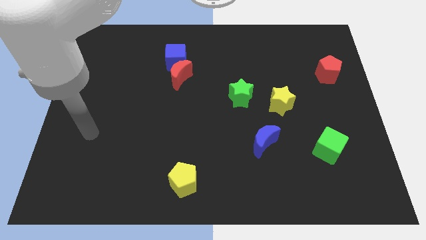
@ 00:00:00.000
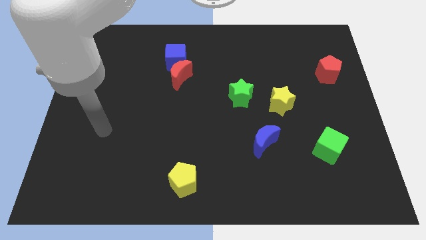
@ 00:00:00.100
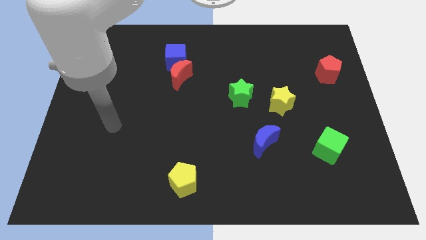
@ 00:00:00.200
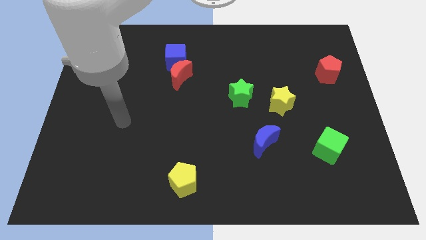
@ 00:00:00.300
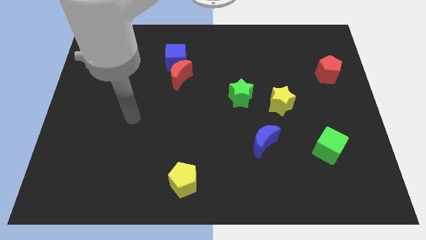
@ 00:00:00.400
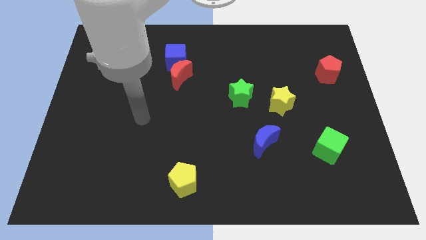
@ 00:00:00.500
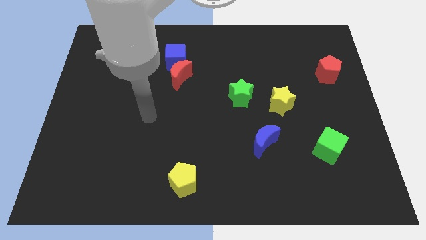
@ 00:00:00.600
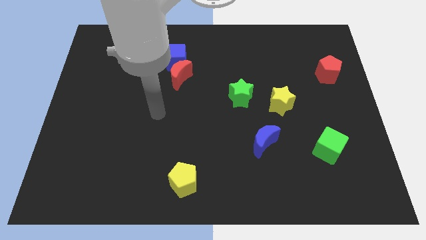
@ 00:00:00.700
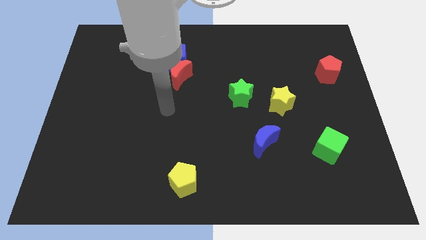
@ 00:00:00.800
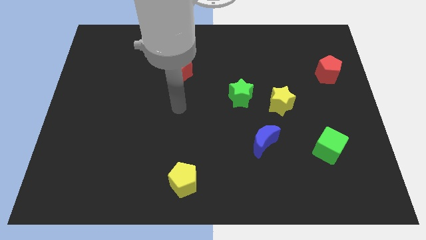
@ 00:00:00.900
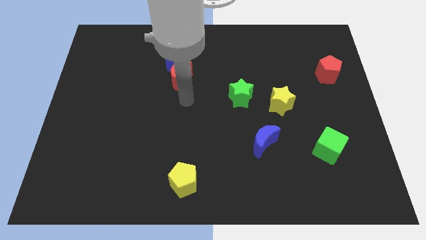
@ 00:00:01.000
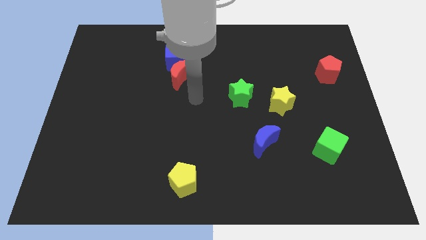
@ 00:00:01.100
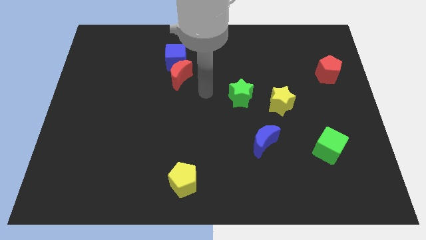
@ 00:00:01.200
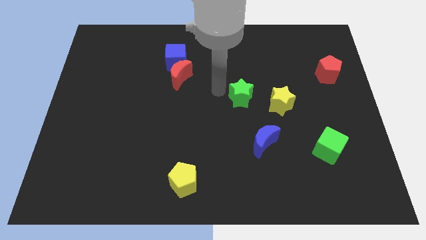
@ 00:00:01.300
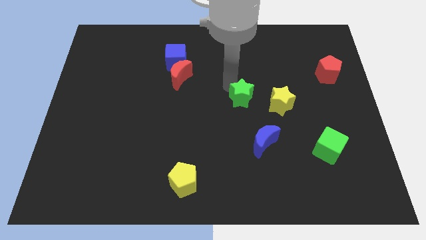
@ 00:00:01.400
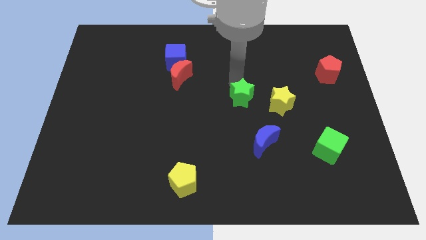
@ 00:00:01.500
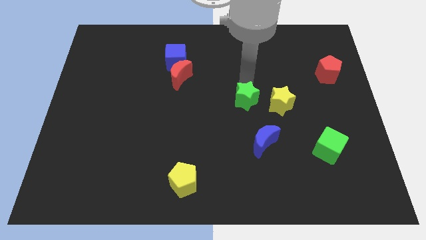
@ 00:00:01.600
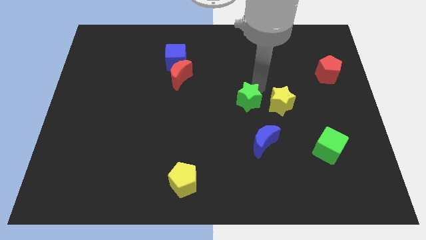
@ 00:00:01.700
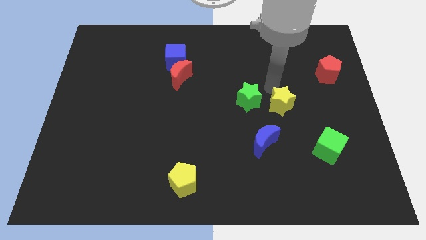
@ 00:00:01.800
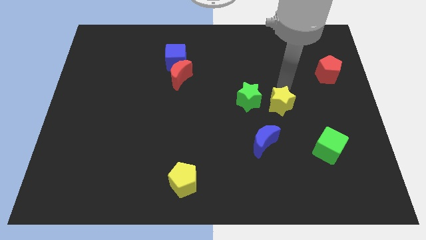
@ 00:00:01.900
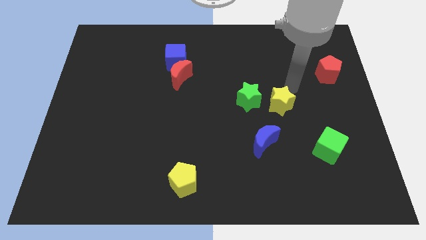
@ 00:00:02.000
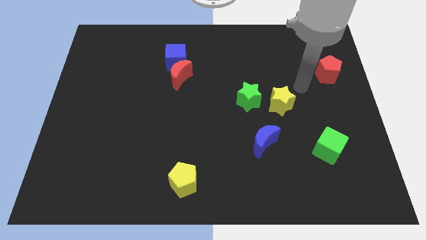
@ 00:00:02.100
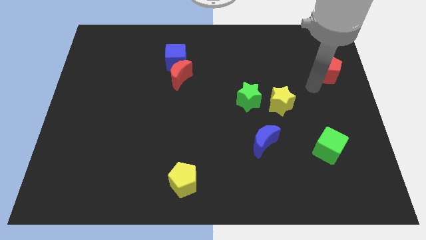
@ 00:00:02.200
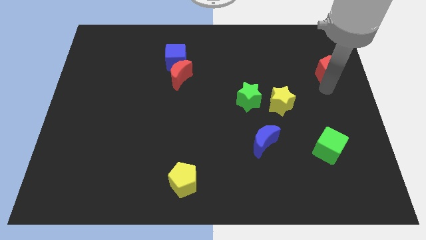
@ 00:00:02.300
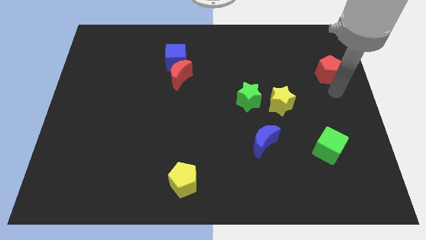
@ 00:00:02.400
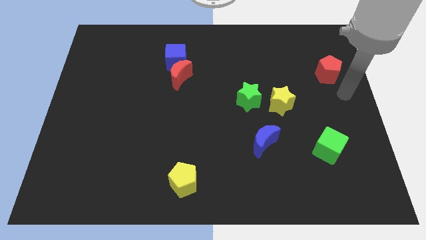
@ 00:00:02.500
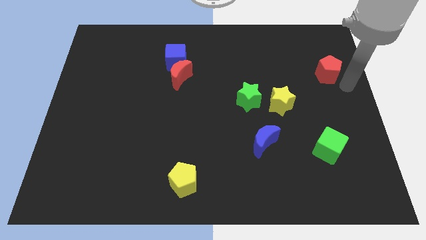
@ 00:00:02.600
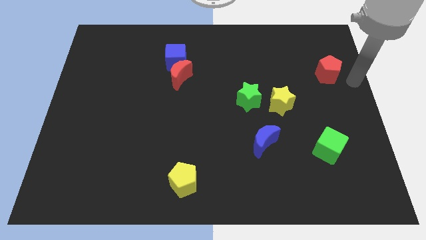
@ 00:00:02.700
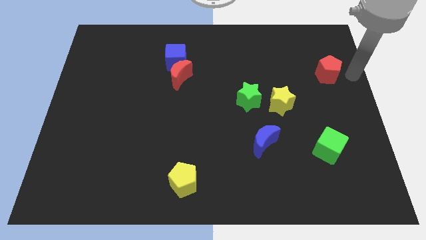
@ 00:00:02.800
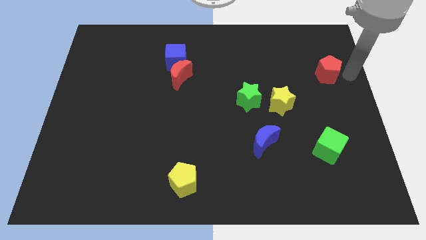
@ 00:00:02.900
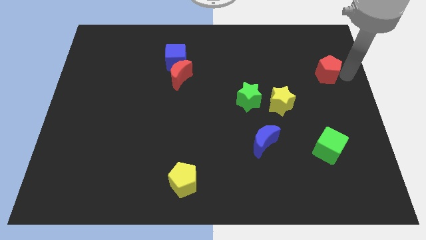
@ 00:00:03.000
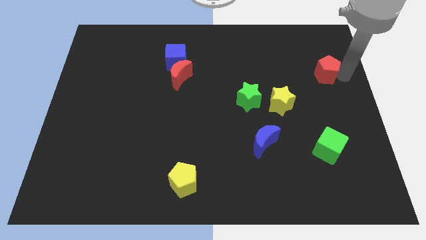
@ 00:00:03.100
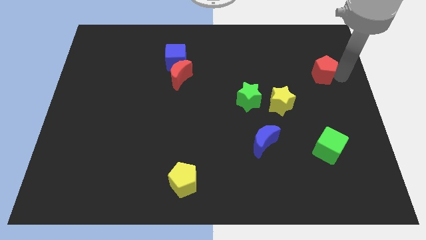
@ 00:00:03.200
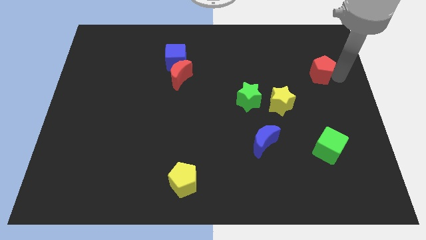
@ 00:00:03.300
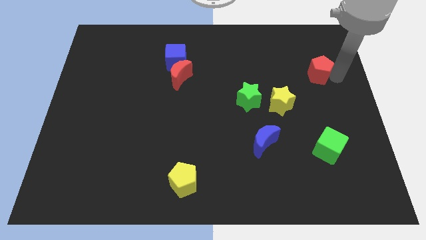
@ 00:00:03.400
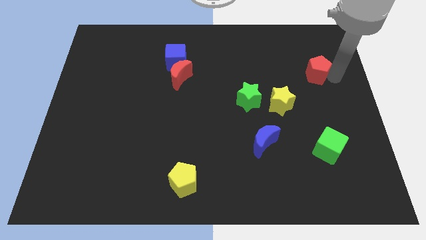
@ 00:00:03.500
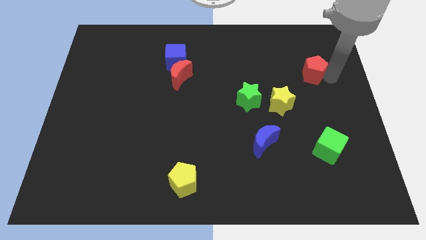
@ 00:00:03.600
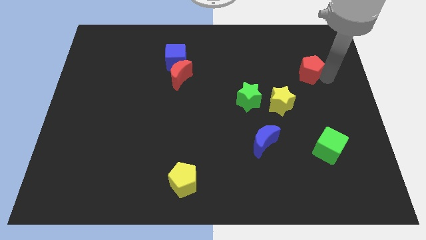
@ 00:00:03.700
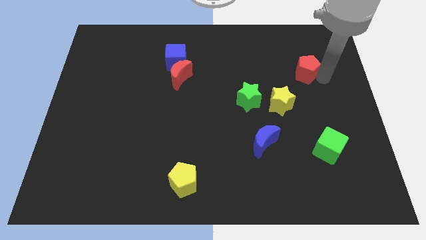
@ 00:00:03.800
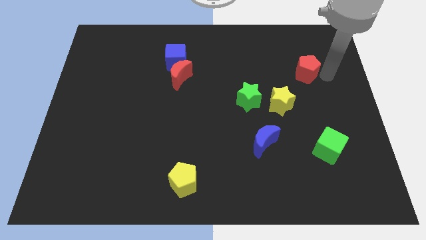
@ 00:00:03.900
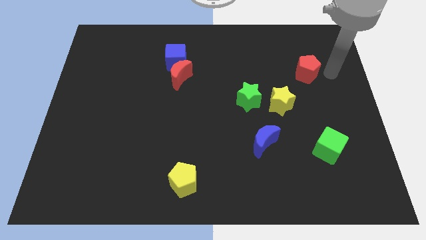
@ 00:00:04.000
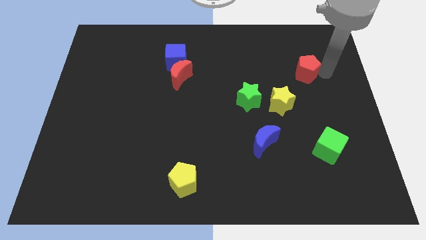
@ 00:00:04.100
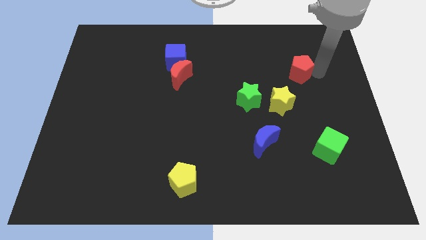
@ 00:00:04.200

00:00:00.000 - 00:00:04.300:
move the red pentagon left a little

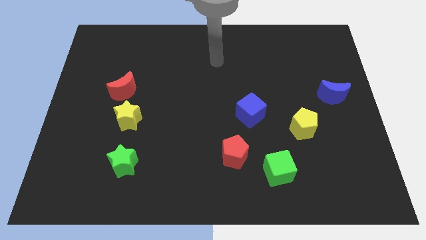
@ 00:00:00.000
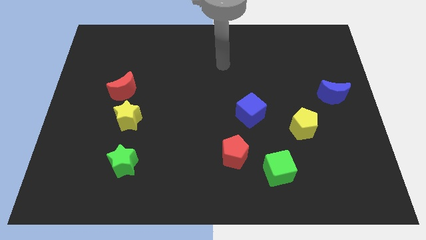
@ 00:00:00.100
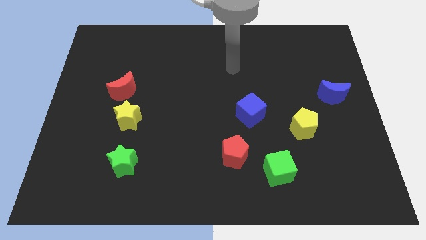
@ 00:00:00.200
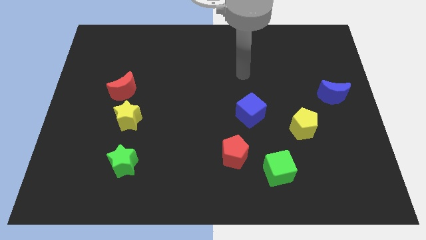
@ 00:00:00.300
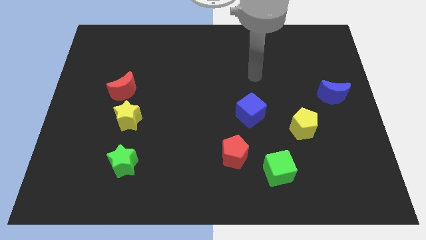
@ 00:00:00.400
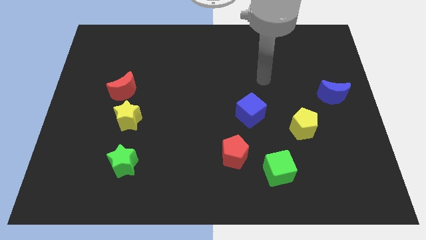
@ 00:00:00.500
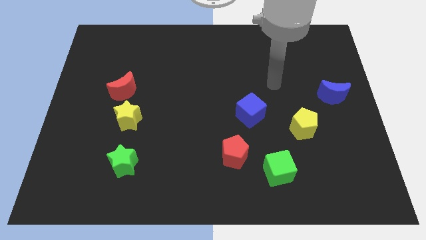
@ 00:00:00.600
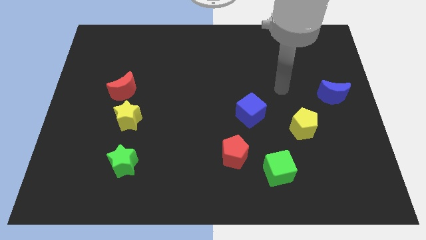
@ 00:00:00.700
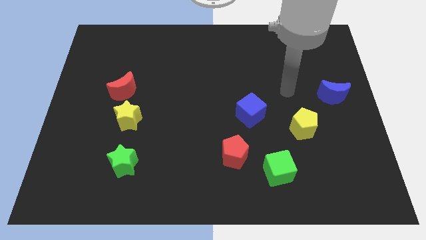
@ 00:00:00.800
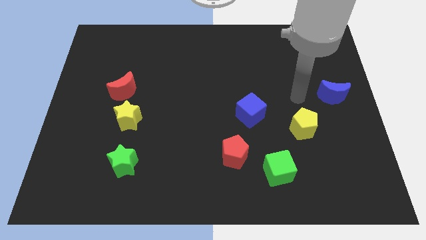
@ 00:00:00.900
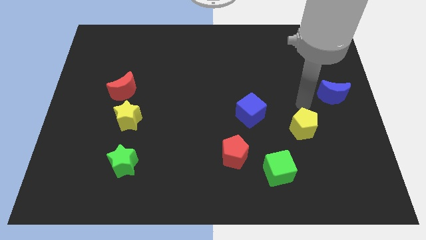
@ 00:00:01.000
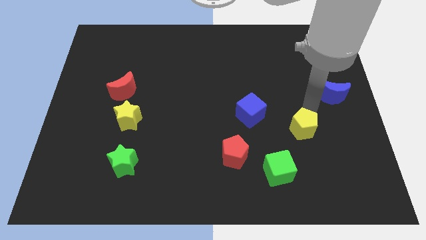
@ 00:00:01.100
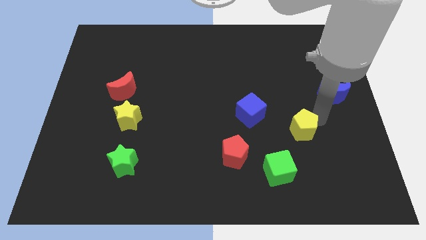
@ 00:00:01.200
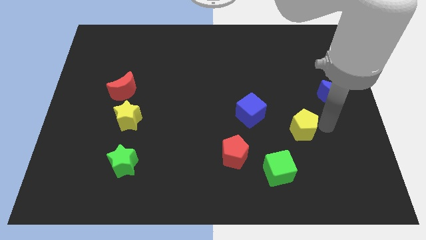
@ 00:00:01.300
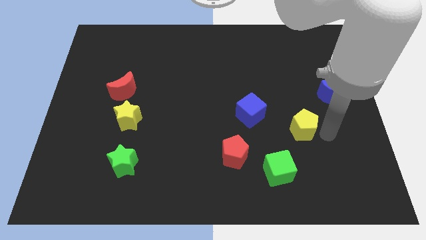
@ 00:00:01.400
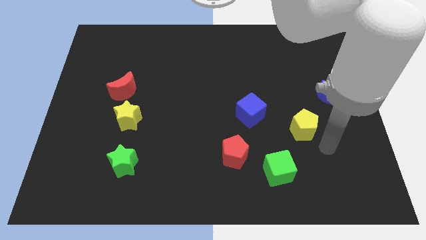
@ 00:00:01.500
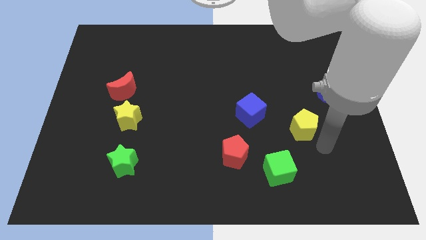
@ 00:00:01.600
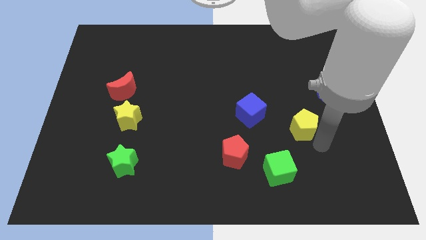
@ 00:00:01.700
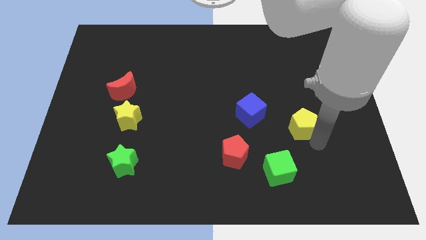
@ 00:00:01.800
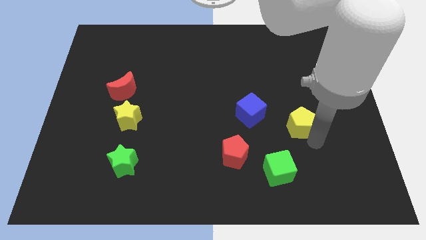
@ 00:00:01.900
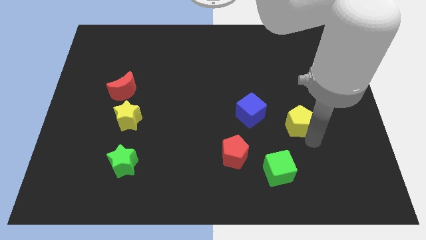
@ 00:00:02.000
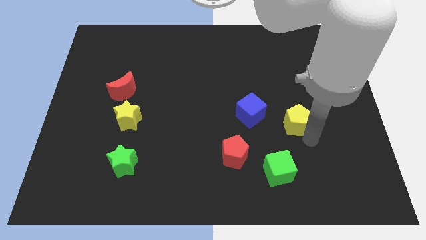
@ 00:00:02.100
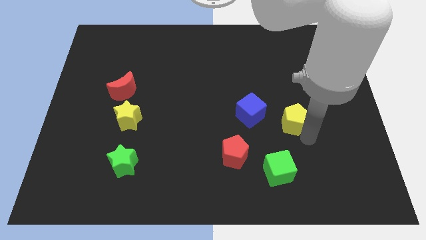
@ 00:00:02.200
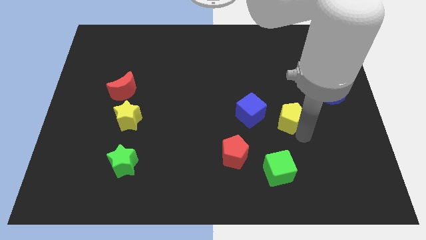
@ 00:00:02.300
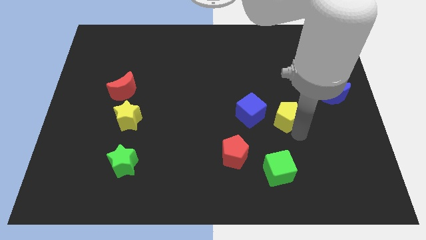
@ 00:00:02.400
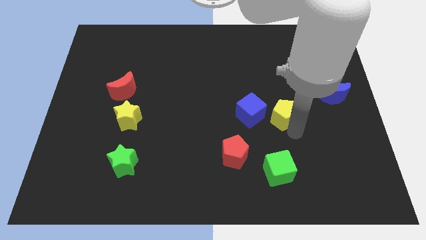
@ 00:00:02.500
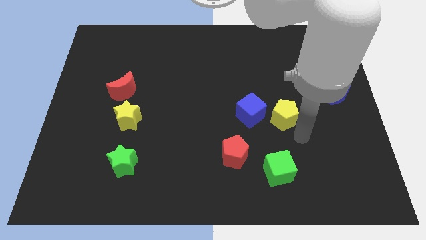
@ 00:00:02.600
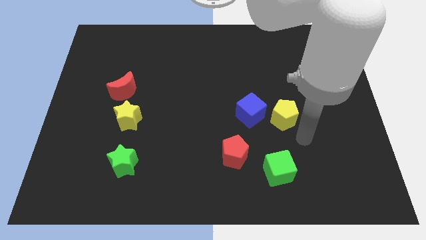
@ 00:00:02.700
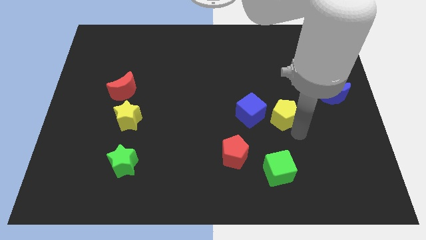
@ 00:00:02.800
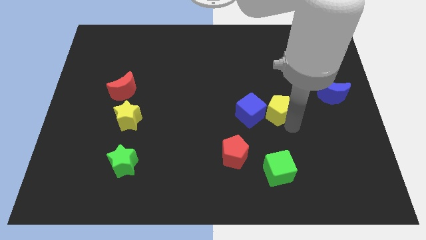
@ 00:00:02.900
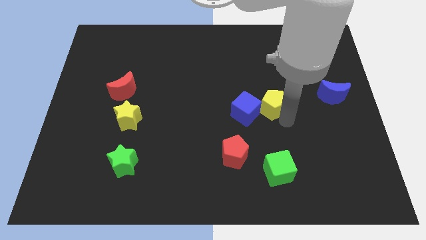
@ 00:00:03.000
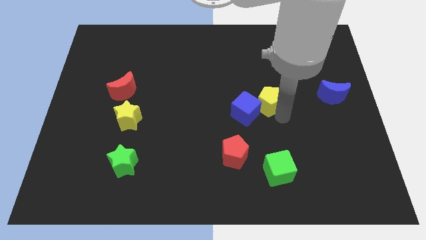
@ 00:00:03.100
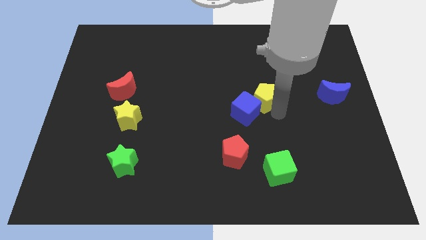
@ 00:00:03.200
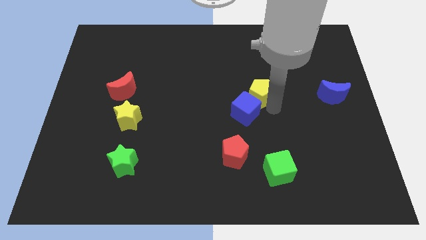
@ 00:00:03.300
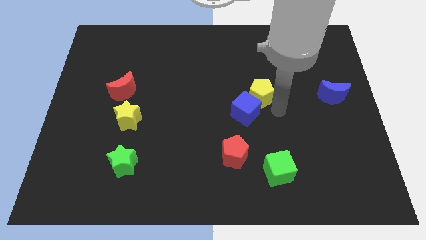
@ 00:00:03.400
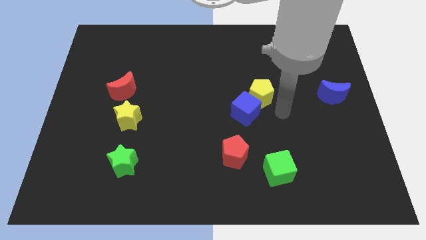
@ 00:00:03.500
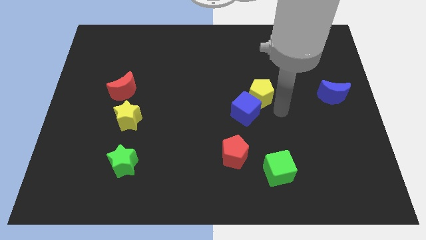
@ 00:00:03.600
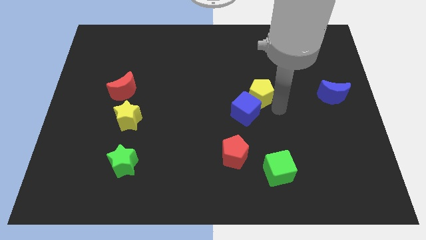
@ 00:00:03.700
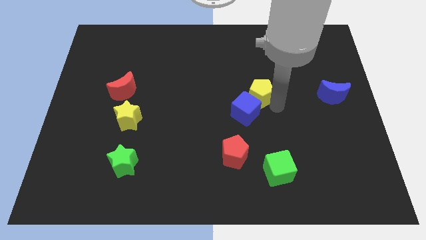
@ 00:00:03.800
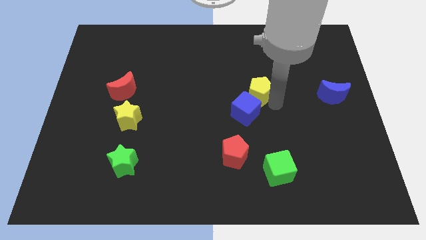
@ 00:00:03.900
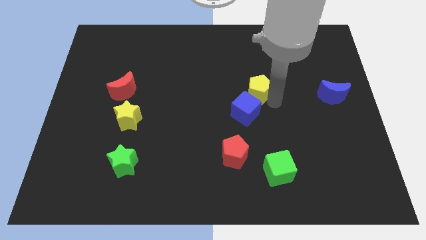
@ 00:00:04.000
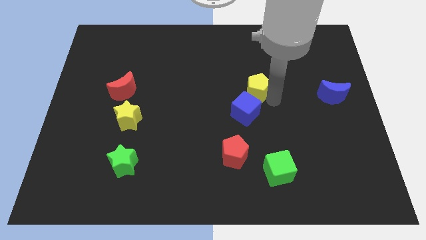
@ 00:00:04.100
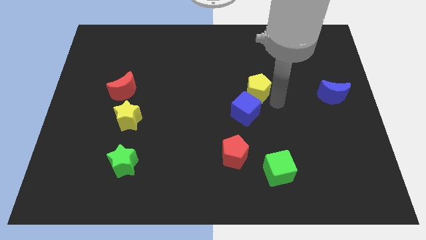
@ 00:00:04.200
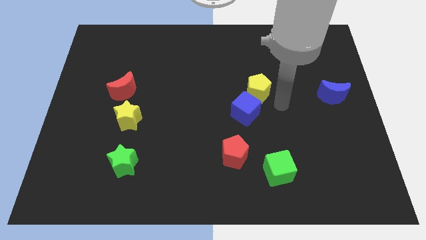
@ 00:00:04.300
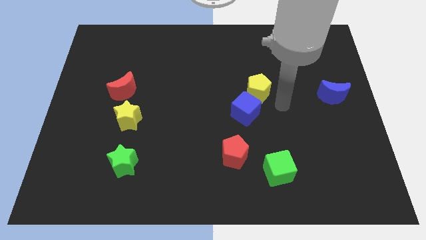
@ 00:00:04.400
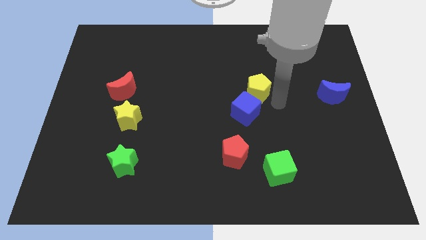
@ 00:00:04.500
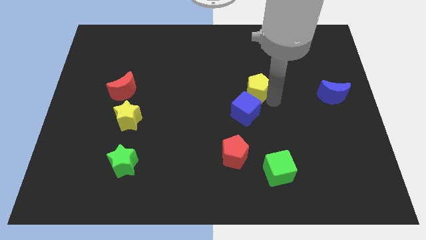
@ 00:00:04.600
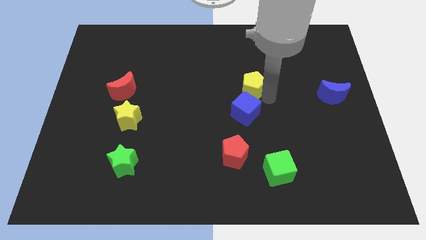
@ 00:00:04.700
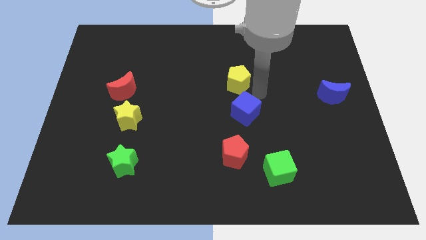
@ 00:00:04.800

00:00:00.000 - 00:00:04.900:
push the yellow pentagon upwards and to the left
